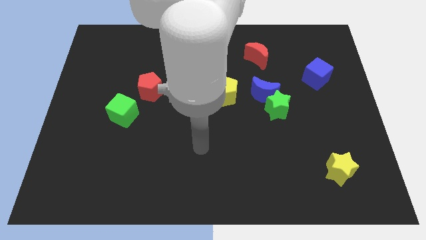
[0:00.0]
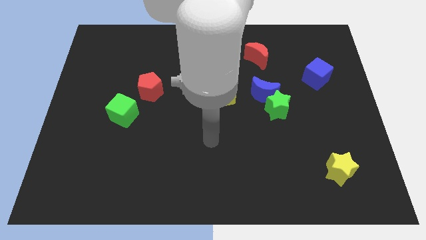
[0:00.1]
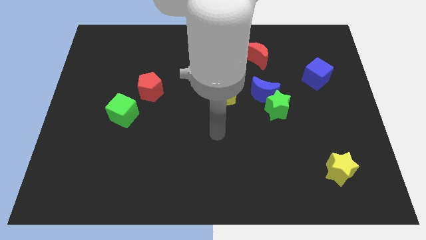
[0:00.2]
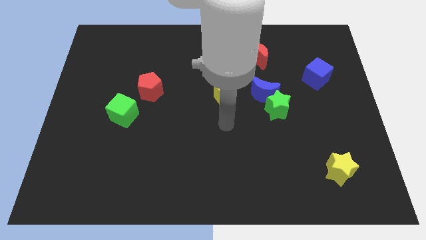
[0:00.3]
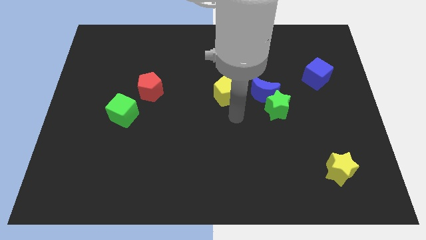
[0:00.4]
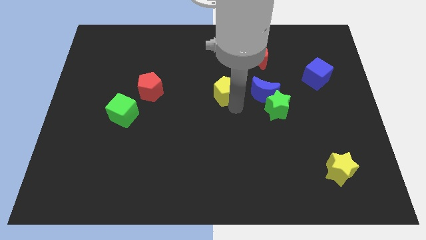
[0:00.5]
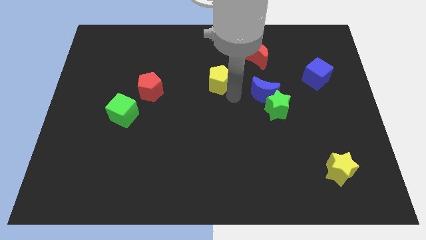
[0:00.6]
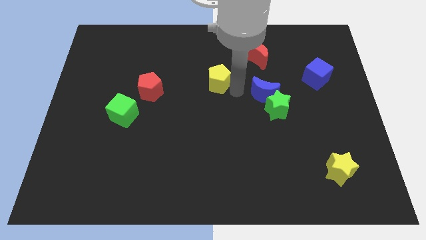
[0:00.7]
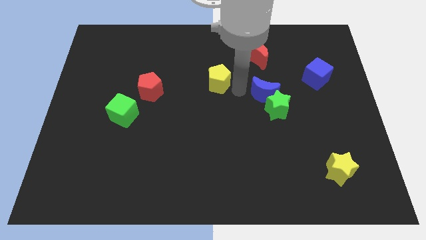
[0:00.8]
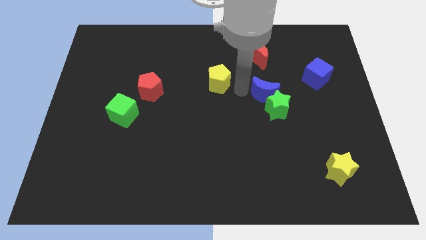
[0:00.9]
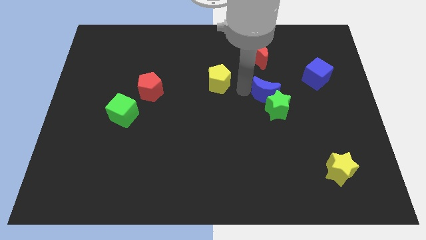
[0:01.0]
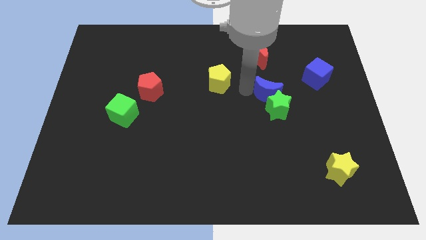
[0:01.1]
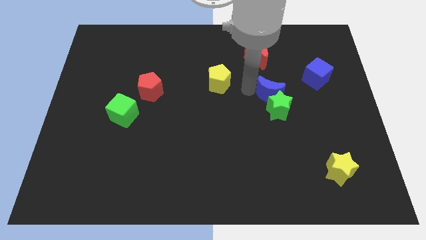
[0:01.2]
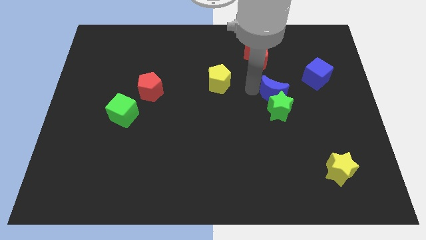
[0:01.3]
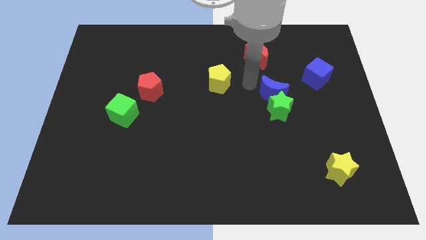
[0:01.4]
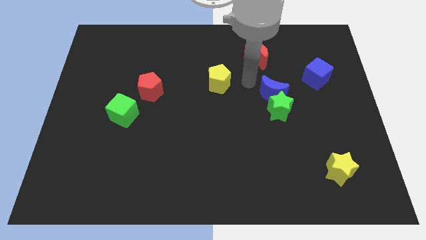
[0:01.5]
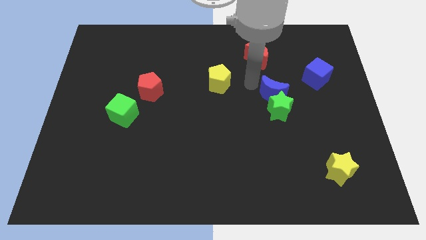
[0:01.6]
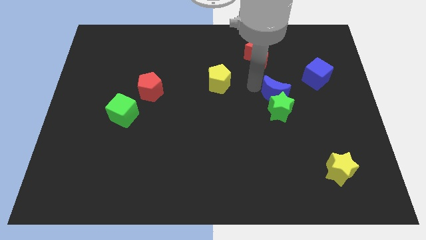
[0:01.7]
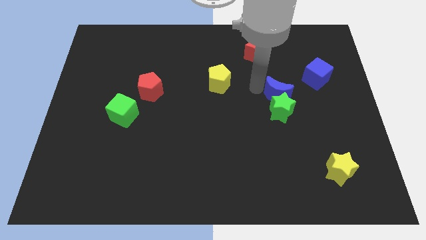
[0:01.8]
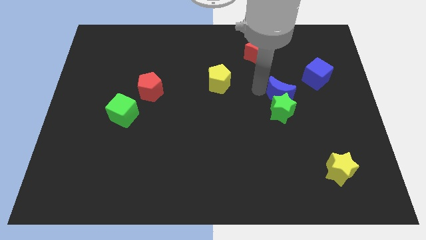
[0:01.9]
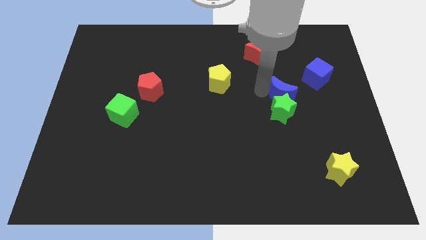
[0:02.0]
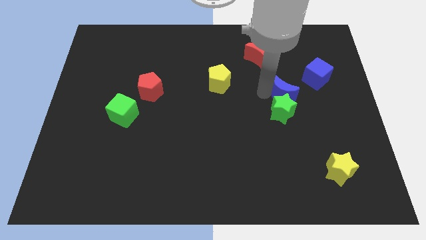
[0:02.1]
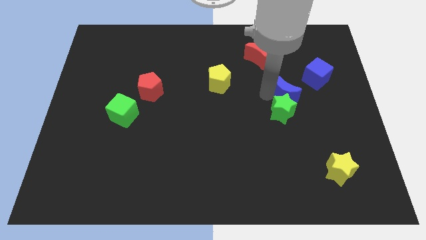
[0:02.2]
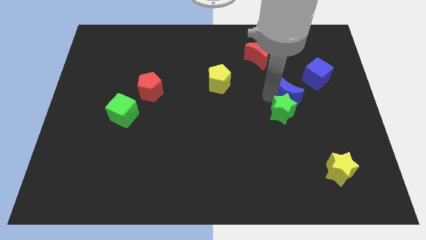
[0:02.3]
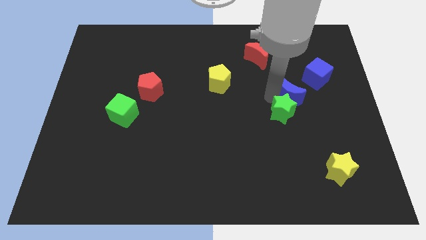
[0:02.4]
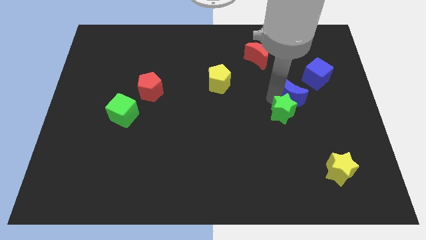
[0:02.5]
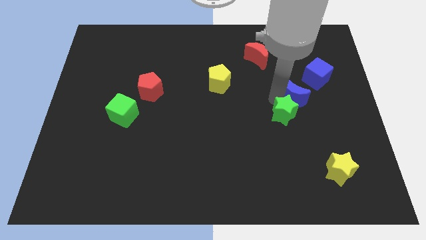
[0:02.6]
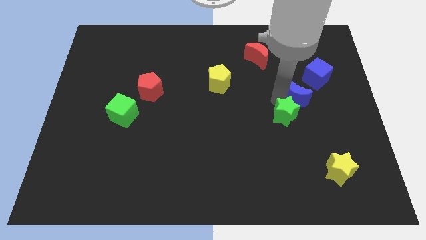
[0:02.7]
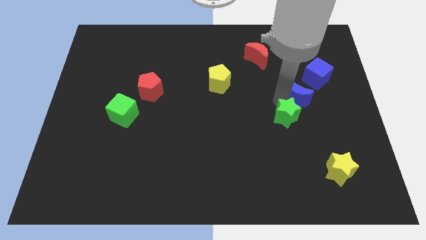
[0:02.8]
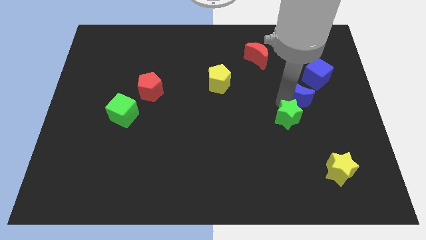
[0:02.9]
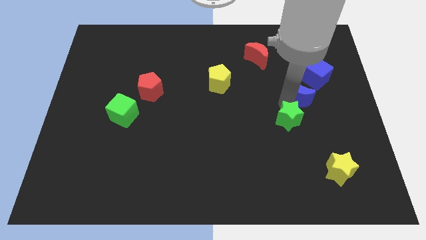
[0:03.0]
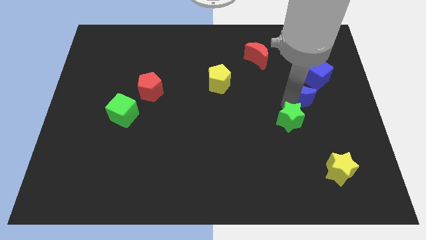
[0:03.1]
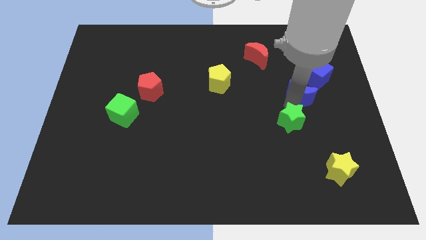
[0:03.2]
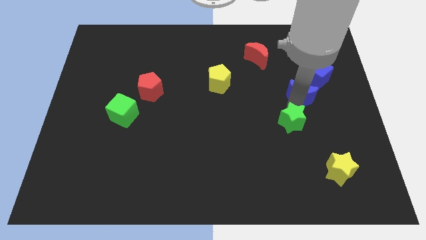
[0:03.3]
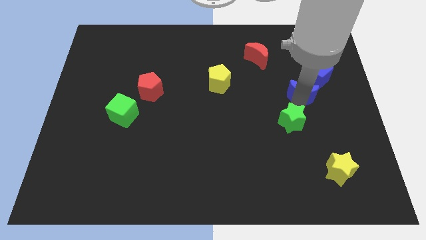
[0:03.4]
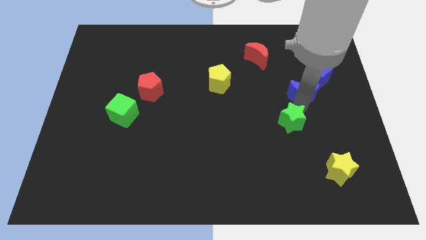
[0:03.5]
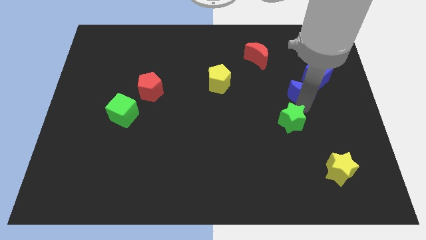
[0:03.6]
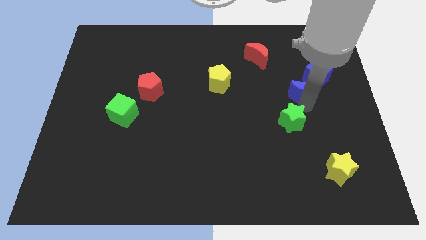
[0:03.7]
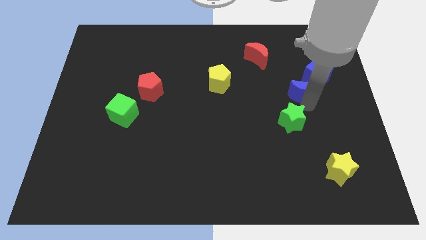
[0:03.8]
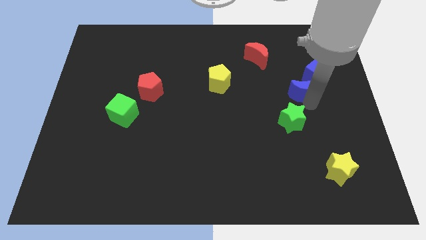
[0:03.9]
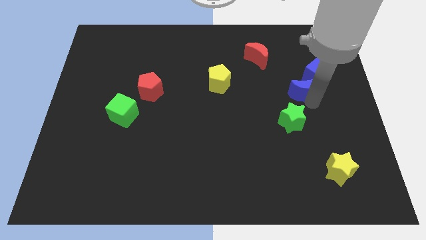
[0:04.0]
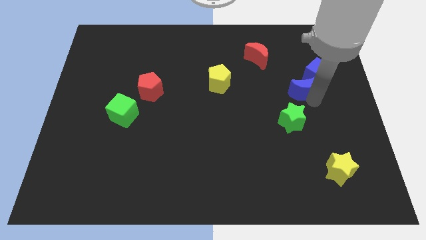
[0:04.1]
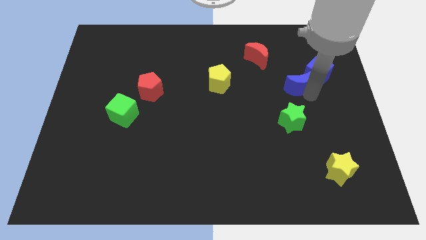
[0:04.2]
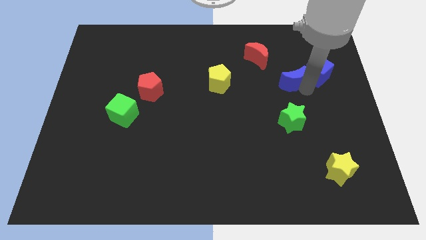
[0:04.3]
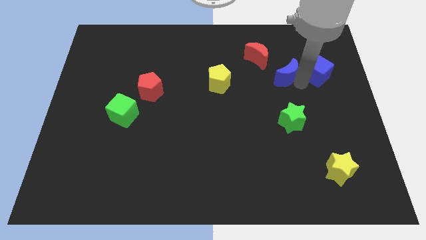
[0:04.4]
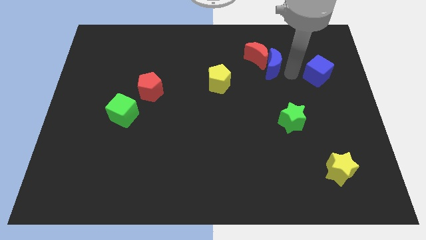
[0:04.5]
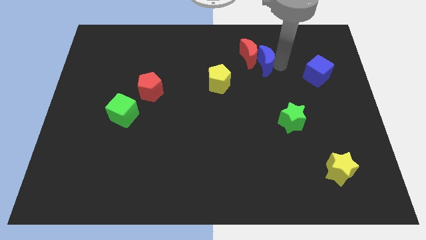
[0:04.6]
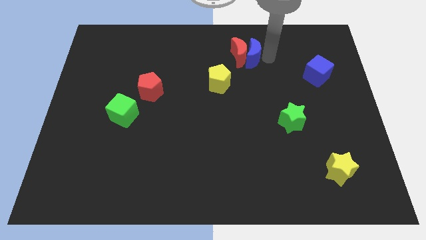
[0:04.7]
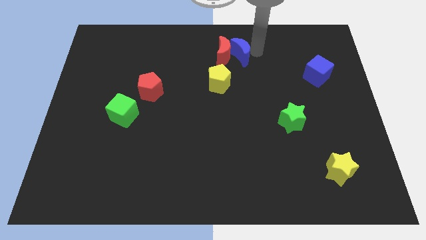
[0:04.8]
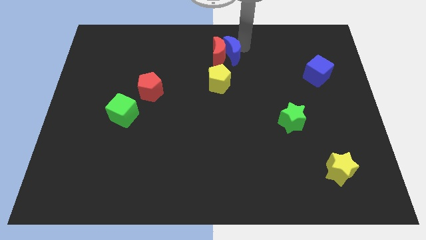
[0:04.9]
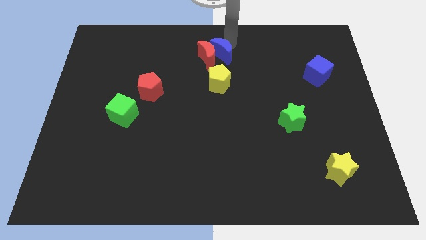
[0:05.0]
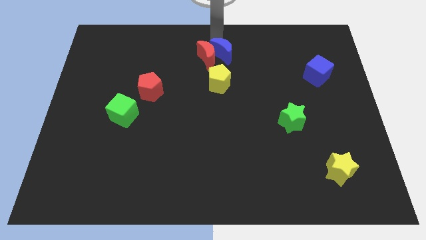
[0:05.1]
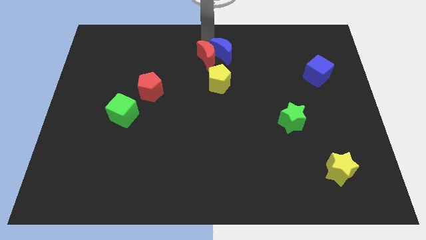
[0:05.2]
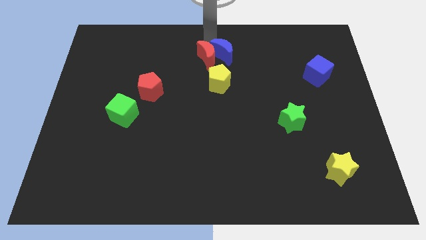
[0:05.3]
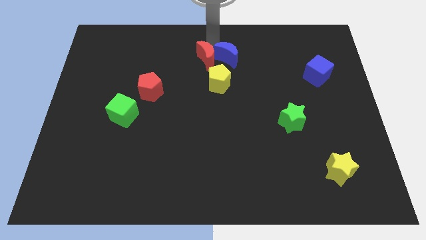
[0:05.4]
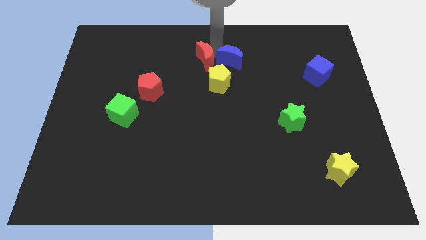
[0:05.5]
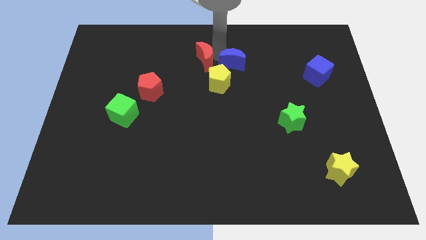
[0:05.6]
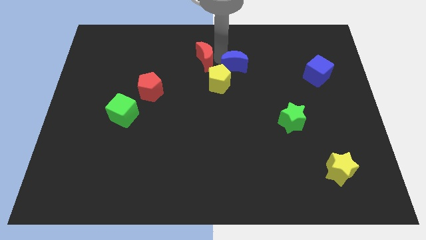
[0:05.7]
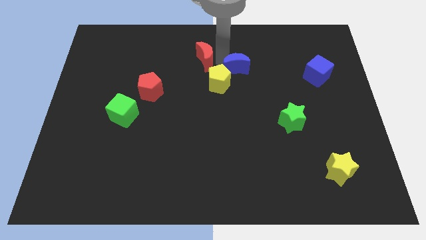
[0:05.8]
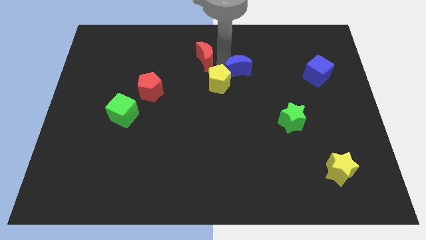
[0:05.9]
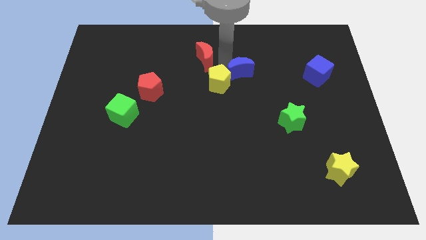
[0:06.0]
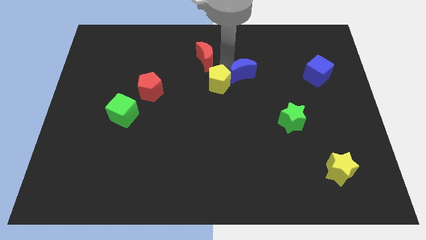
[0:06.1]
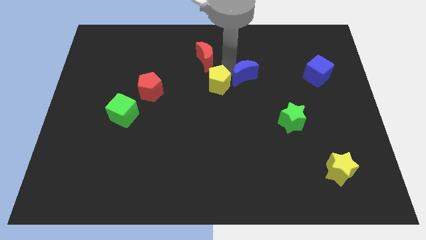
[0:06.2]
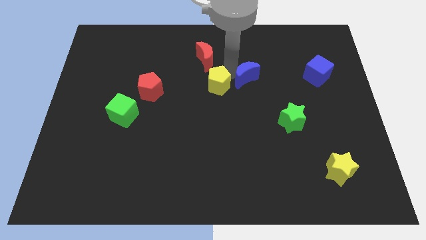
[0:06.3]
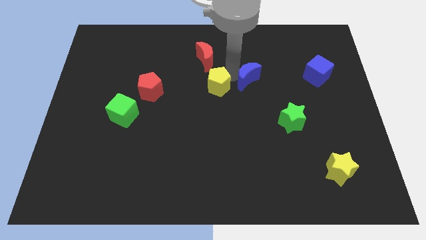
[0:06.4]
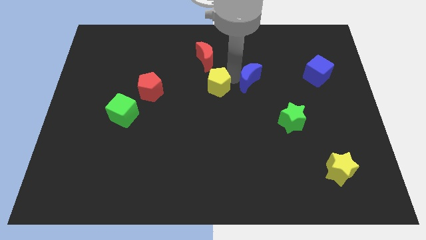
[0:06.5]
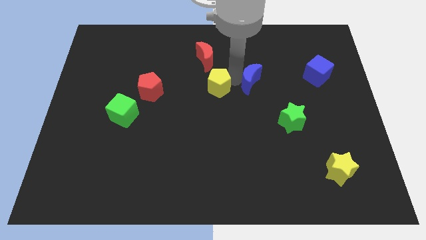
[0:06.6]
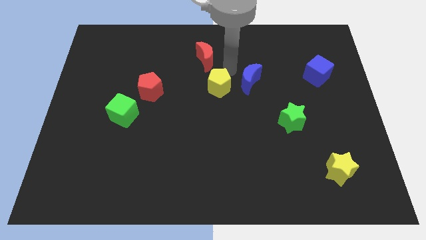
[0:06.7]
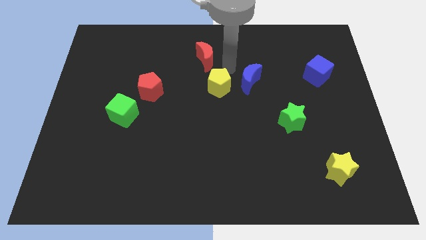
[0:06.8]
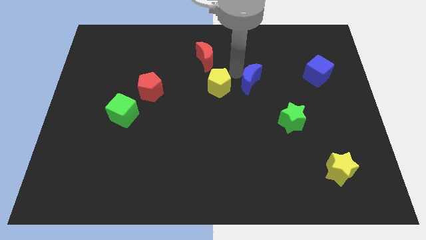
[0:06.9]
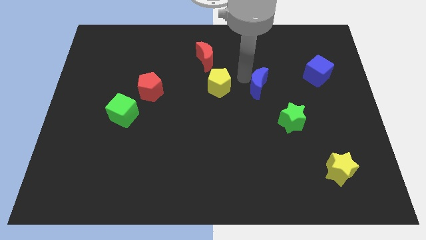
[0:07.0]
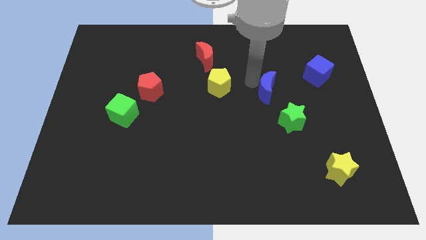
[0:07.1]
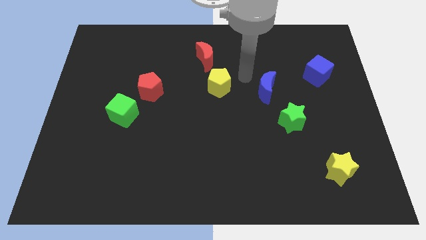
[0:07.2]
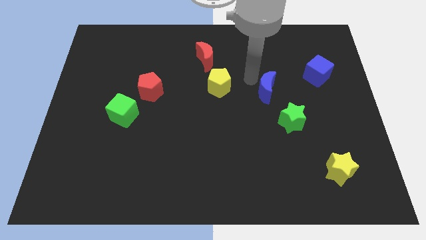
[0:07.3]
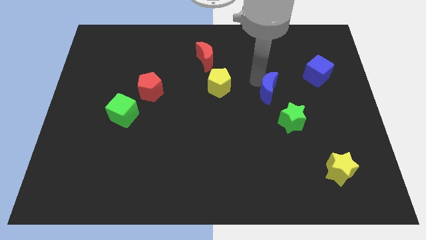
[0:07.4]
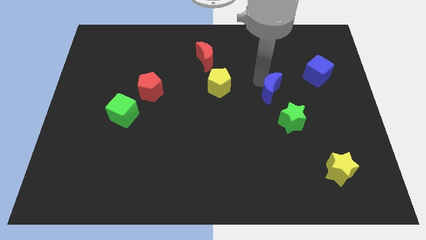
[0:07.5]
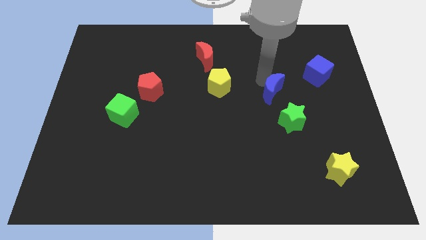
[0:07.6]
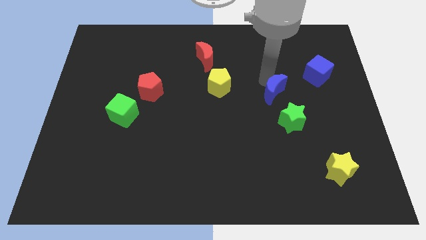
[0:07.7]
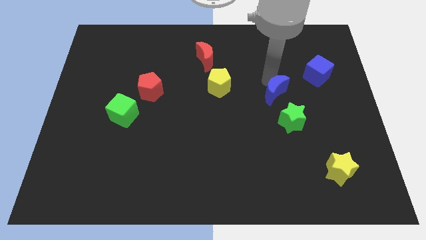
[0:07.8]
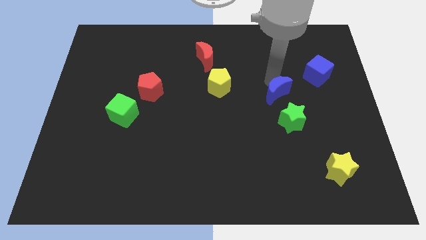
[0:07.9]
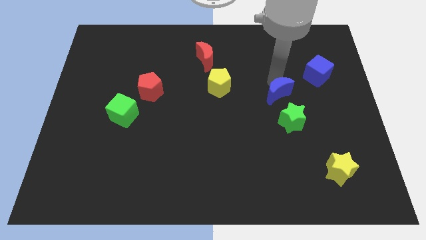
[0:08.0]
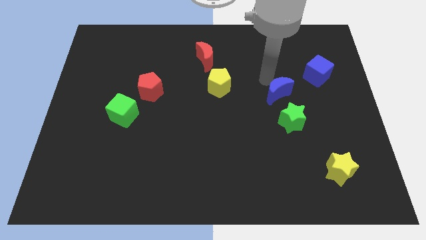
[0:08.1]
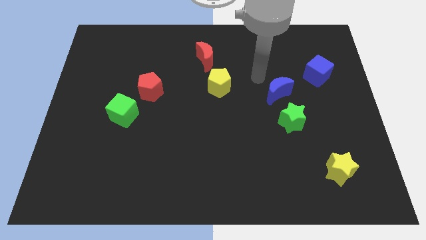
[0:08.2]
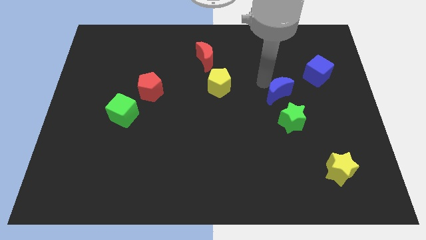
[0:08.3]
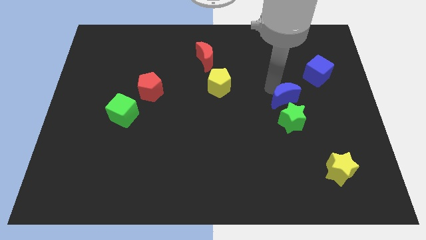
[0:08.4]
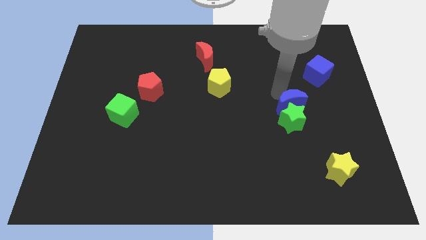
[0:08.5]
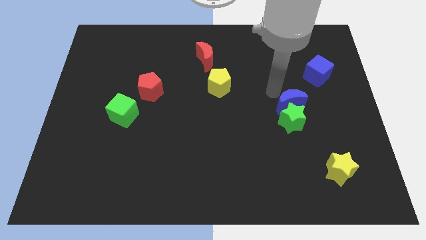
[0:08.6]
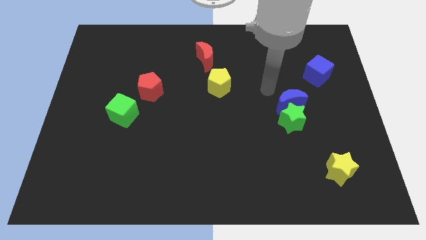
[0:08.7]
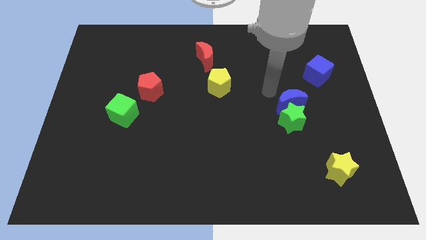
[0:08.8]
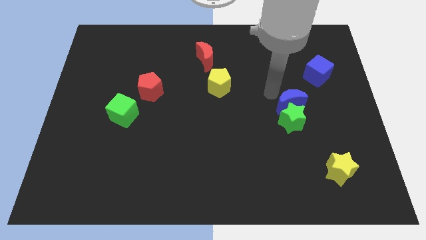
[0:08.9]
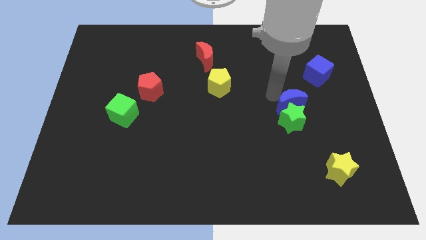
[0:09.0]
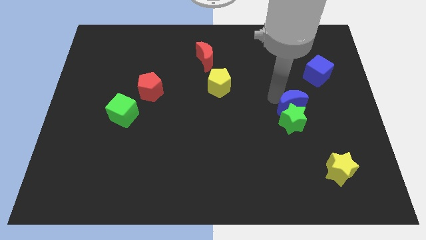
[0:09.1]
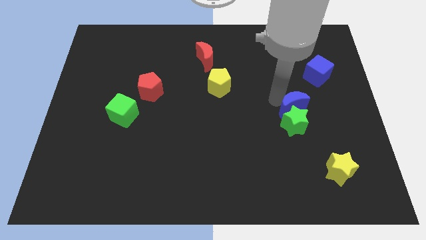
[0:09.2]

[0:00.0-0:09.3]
move the blue moon downwards and to the right diagonally a little bit
